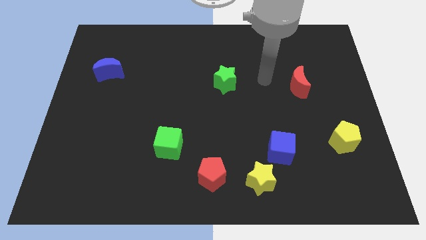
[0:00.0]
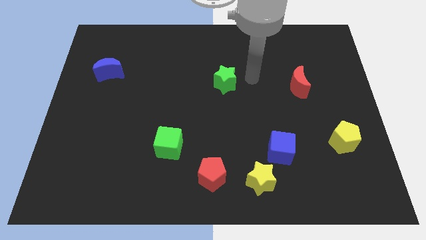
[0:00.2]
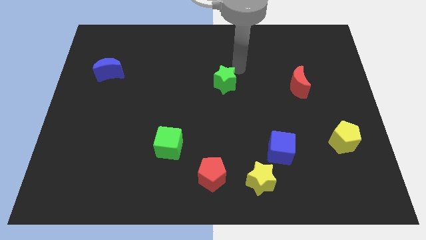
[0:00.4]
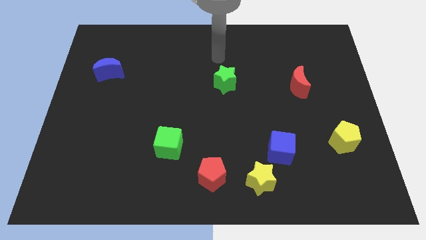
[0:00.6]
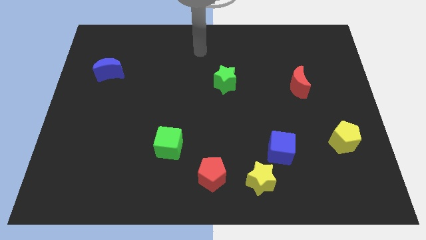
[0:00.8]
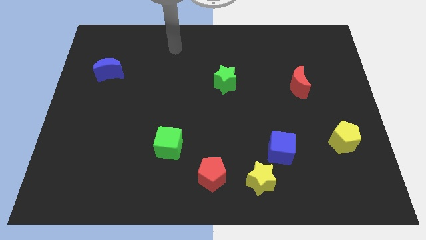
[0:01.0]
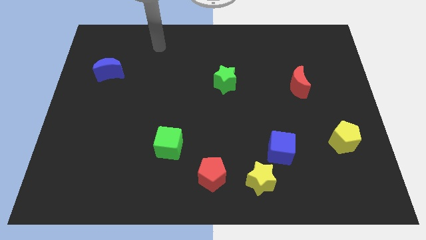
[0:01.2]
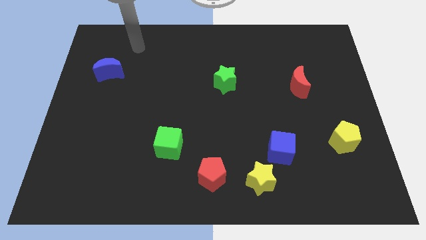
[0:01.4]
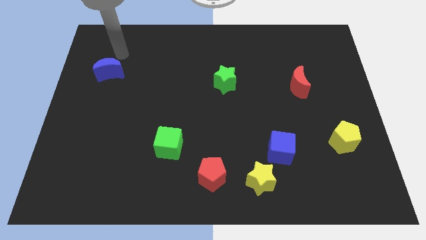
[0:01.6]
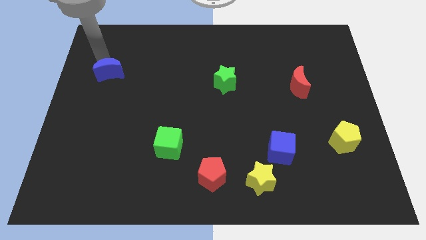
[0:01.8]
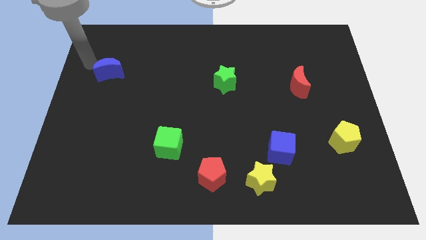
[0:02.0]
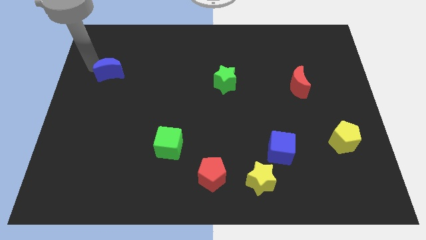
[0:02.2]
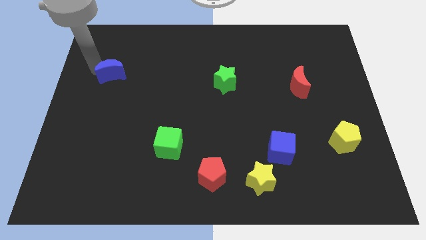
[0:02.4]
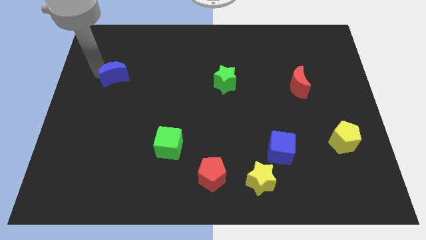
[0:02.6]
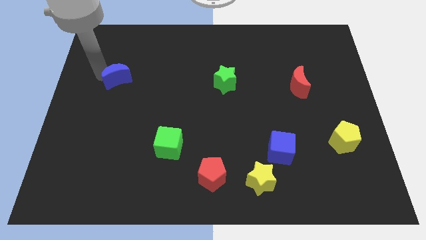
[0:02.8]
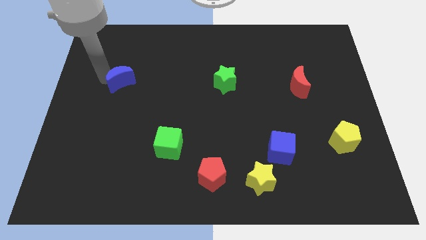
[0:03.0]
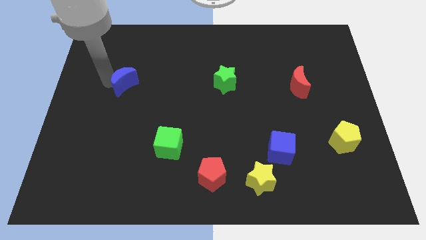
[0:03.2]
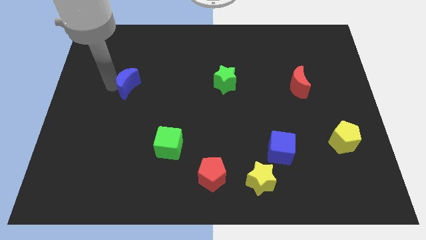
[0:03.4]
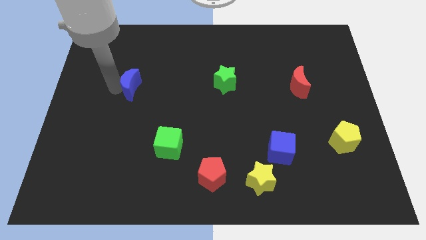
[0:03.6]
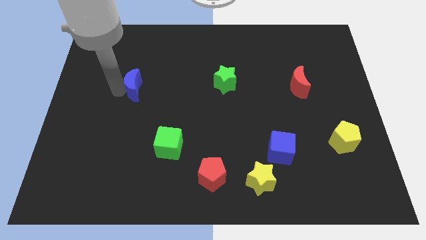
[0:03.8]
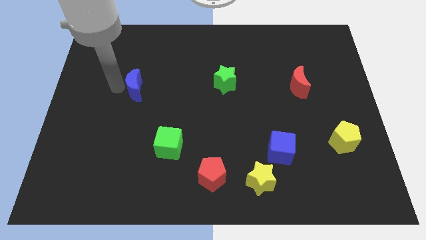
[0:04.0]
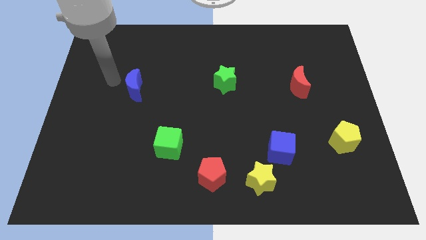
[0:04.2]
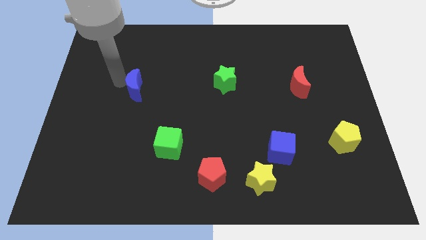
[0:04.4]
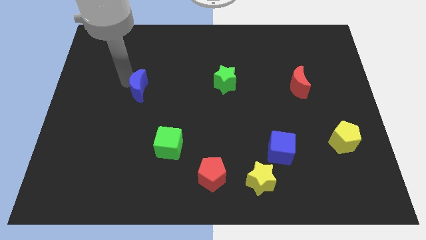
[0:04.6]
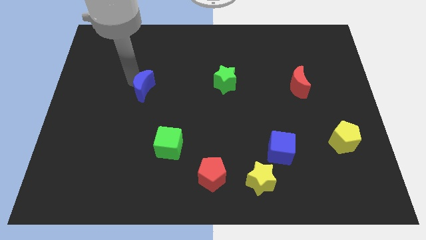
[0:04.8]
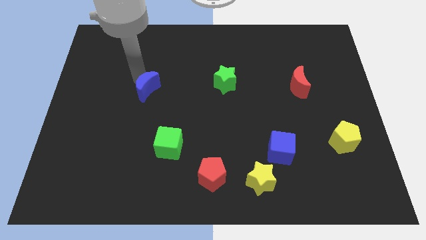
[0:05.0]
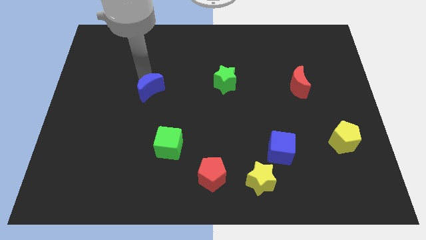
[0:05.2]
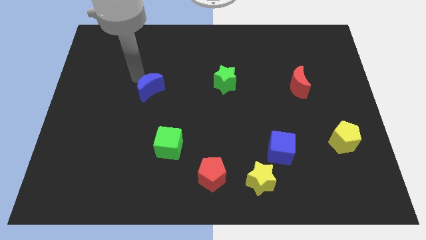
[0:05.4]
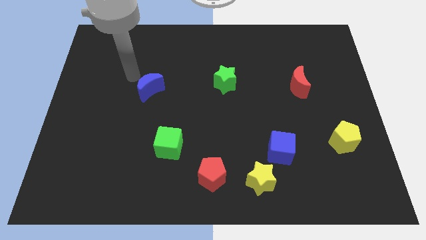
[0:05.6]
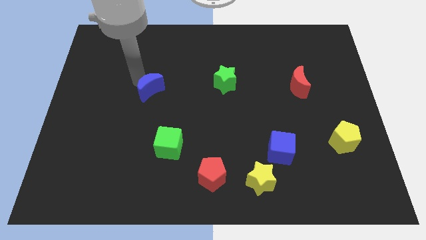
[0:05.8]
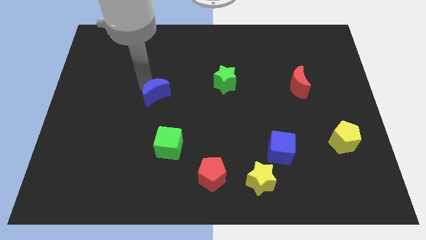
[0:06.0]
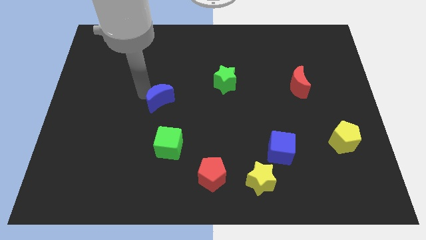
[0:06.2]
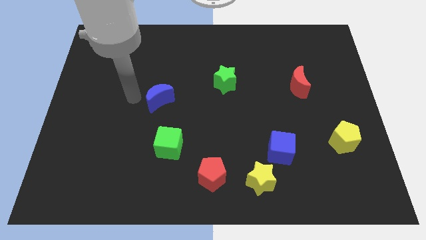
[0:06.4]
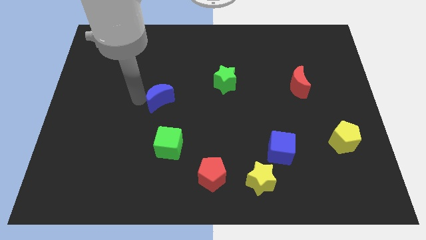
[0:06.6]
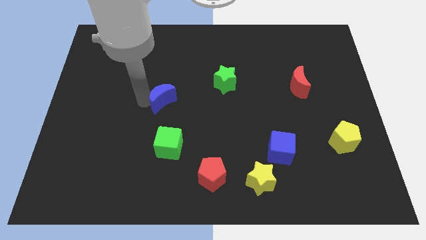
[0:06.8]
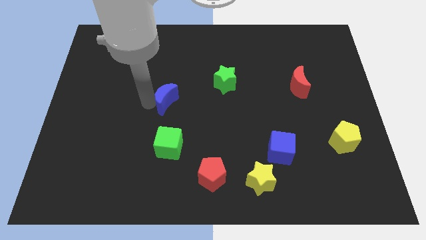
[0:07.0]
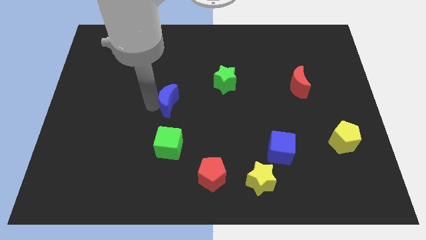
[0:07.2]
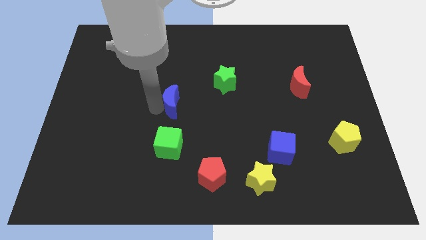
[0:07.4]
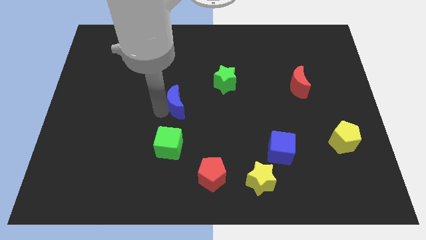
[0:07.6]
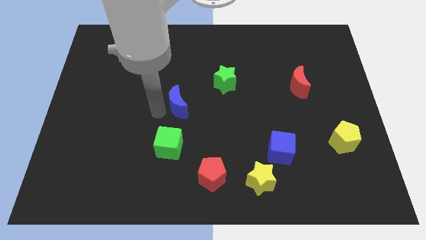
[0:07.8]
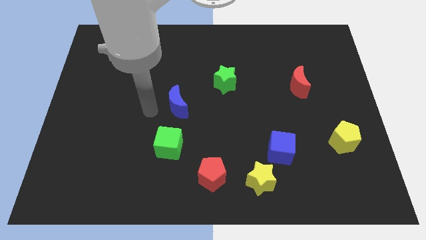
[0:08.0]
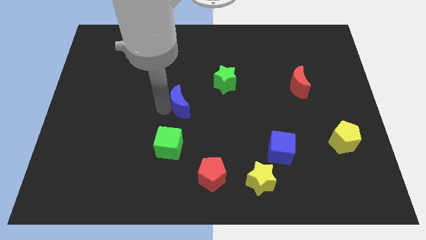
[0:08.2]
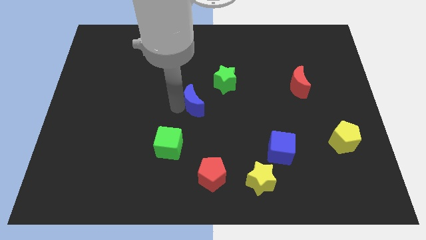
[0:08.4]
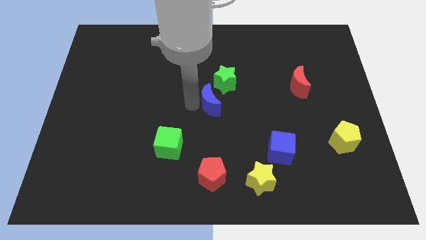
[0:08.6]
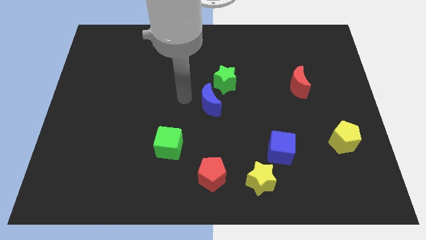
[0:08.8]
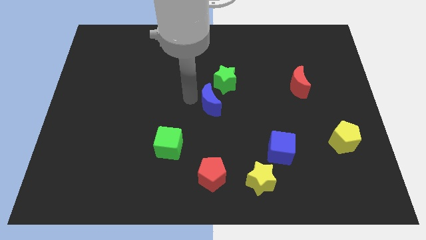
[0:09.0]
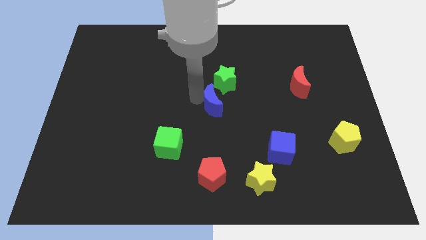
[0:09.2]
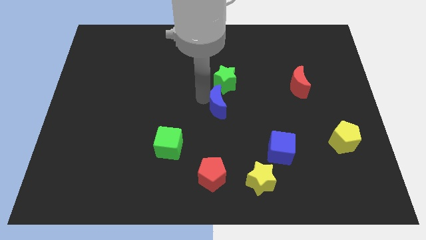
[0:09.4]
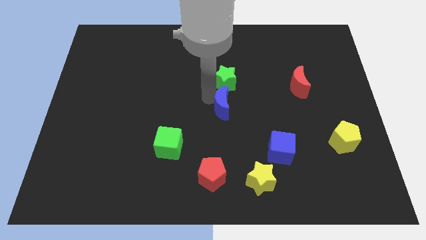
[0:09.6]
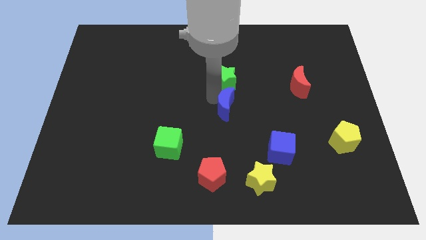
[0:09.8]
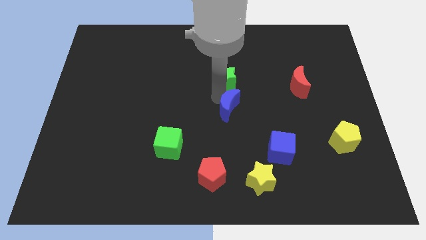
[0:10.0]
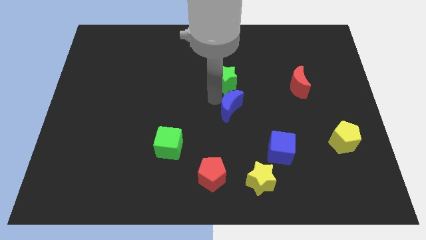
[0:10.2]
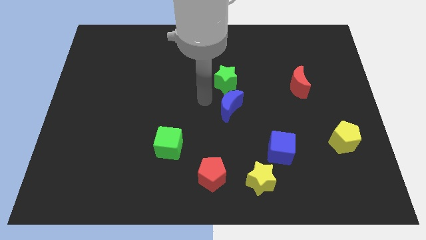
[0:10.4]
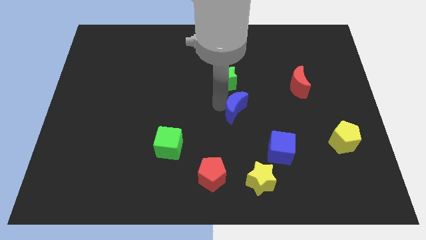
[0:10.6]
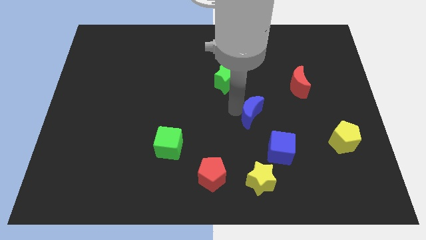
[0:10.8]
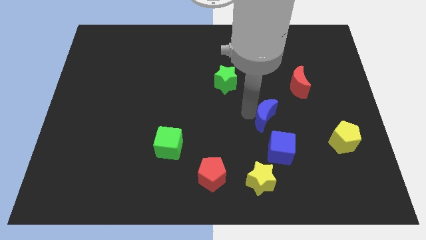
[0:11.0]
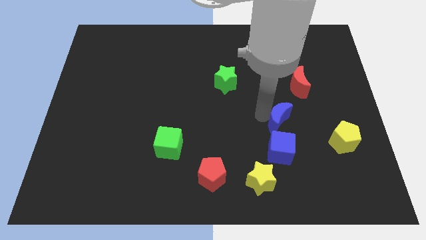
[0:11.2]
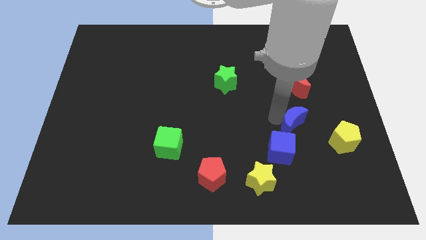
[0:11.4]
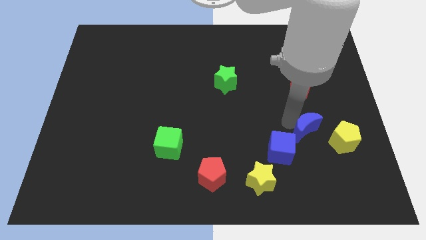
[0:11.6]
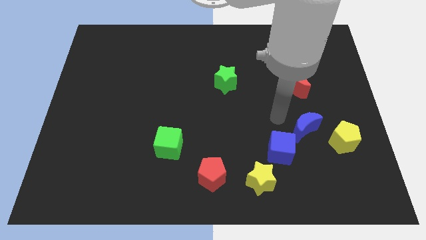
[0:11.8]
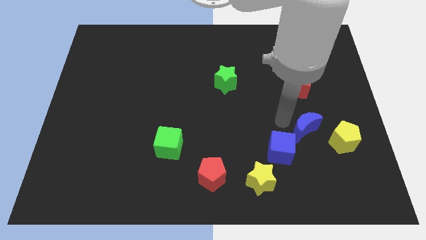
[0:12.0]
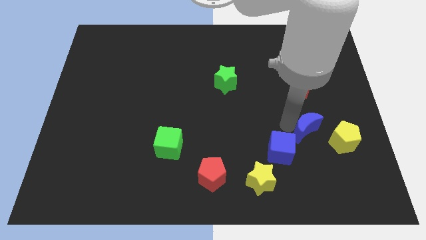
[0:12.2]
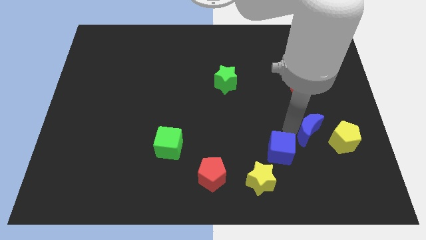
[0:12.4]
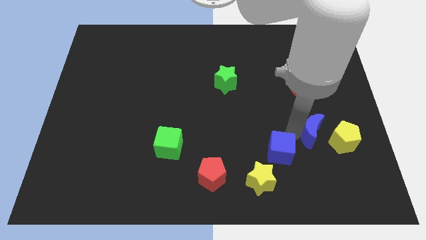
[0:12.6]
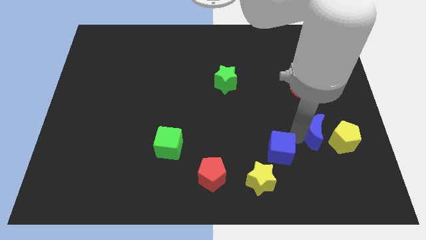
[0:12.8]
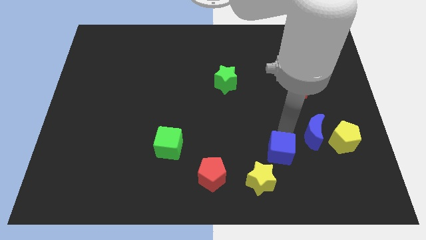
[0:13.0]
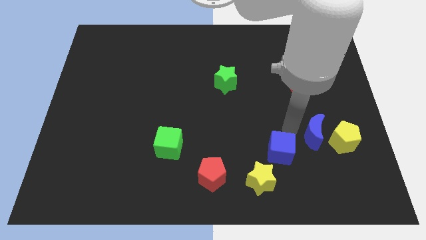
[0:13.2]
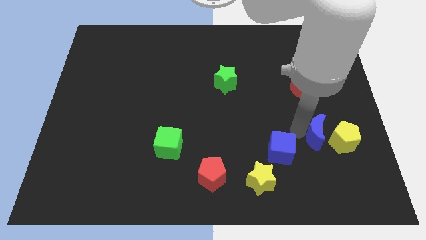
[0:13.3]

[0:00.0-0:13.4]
move the blue moon to the yellow pentagon

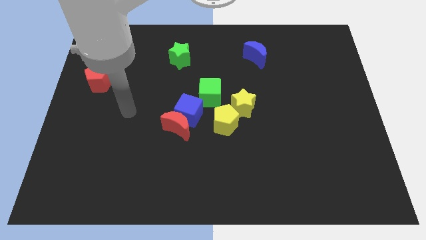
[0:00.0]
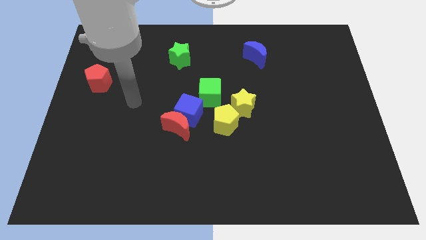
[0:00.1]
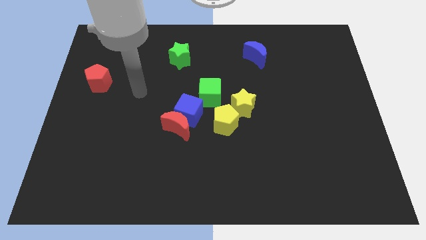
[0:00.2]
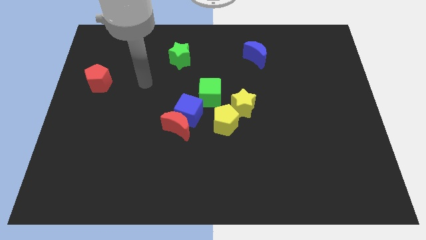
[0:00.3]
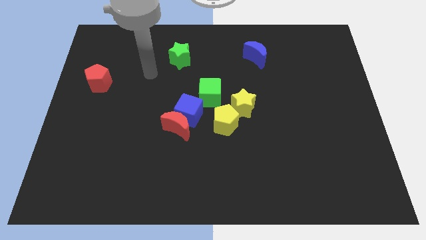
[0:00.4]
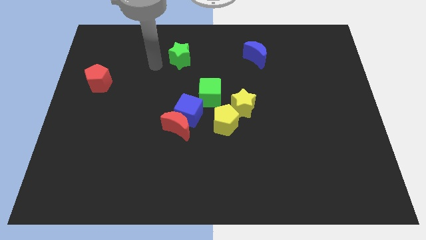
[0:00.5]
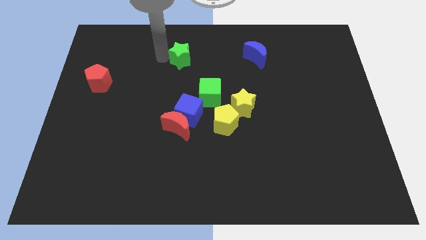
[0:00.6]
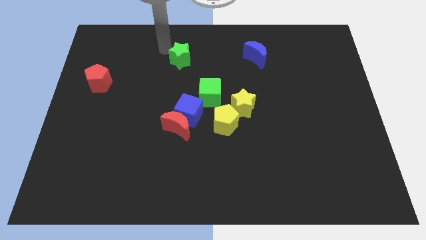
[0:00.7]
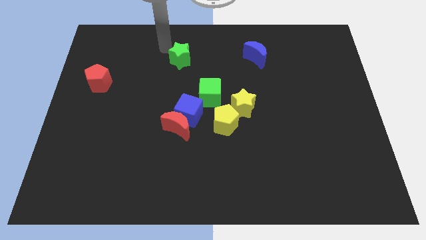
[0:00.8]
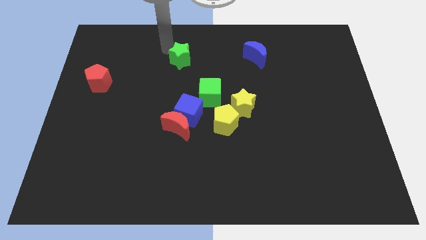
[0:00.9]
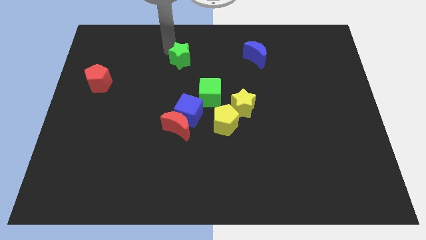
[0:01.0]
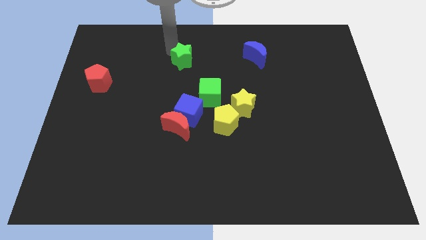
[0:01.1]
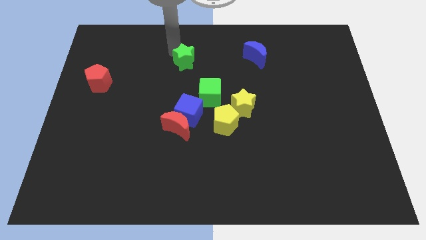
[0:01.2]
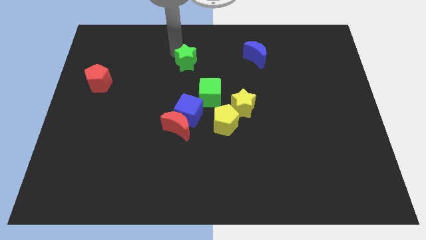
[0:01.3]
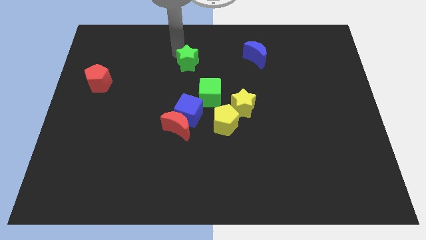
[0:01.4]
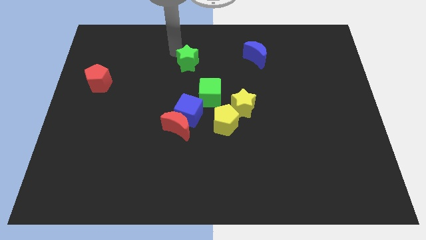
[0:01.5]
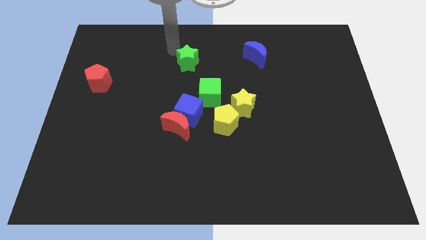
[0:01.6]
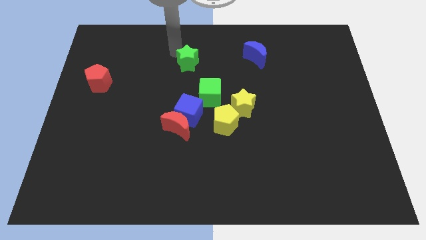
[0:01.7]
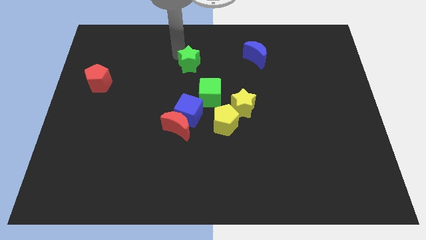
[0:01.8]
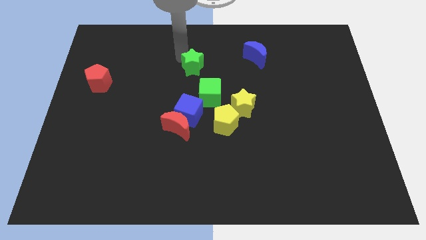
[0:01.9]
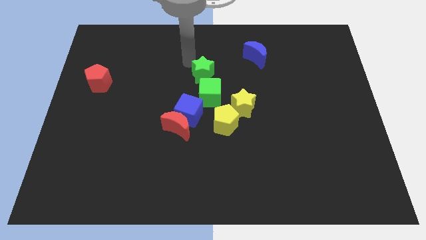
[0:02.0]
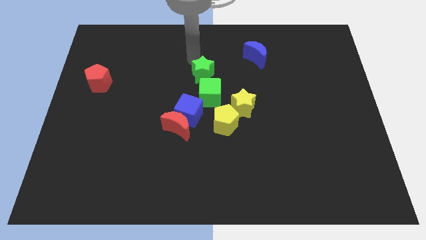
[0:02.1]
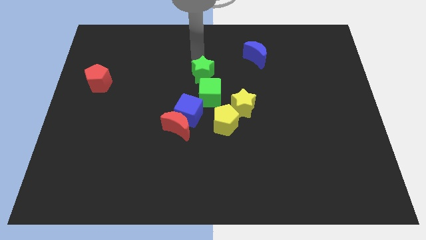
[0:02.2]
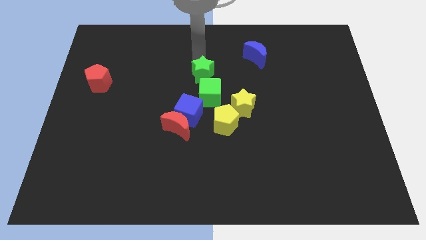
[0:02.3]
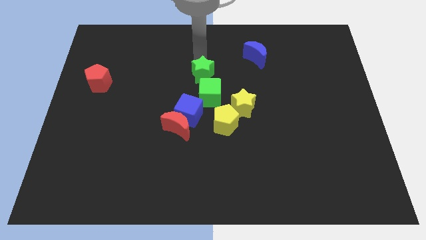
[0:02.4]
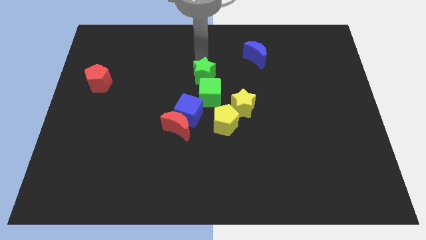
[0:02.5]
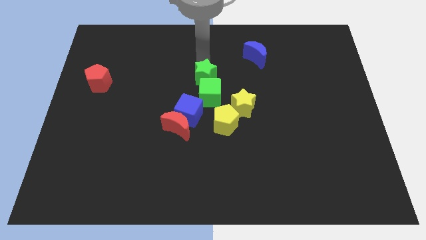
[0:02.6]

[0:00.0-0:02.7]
push the green star close to the green cube
